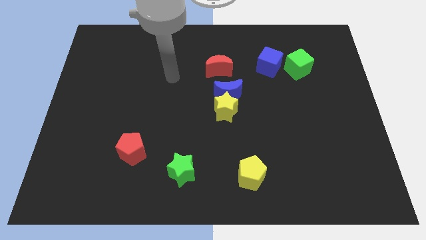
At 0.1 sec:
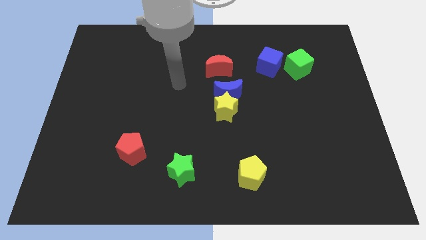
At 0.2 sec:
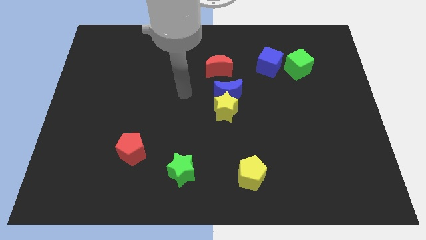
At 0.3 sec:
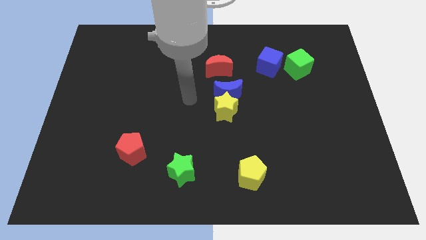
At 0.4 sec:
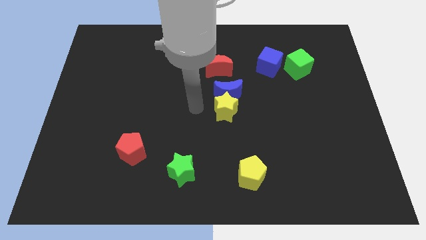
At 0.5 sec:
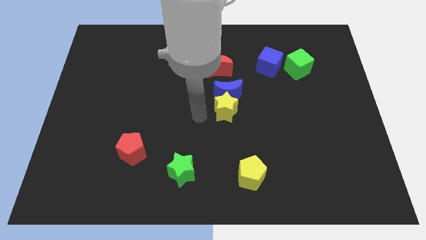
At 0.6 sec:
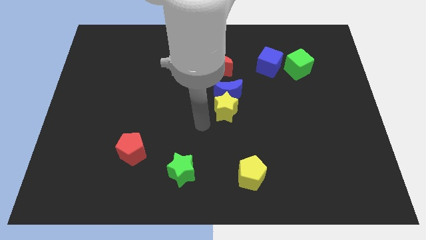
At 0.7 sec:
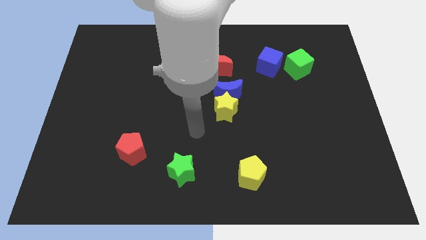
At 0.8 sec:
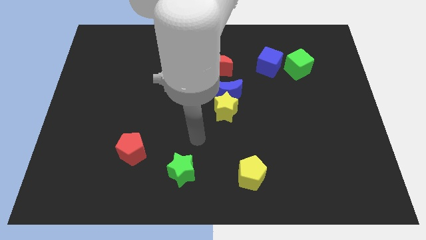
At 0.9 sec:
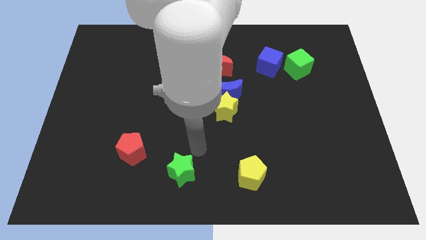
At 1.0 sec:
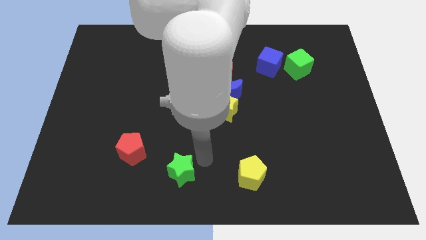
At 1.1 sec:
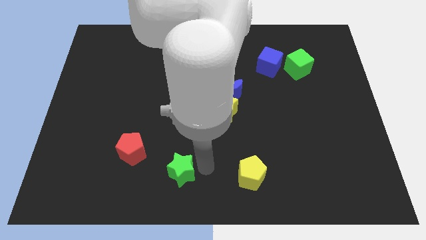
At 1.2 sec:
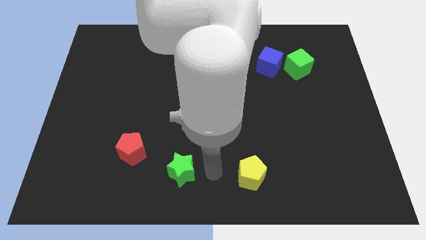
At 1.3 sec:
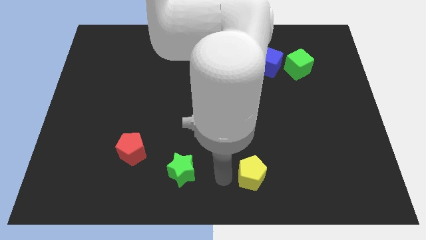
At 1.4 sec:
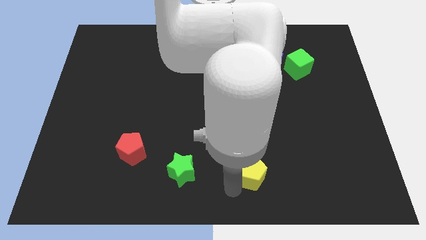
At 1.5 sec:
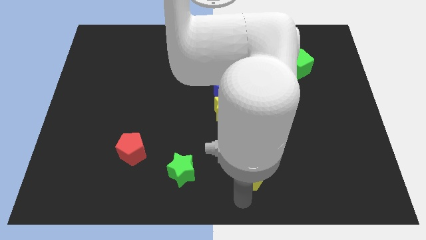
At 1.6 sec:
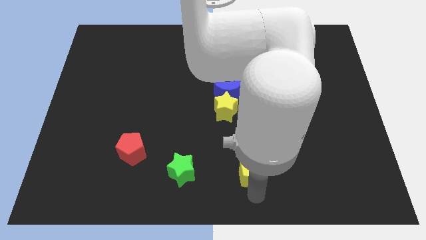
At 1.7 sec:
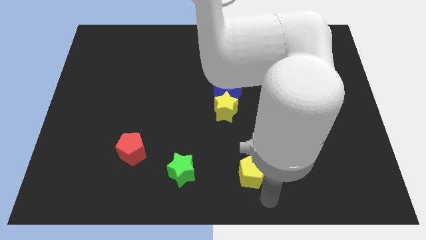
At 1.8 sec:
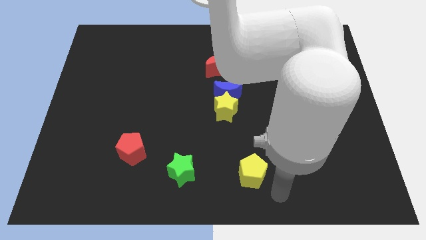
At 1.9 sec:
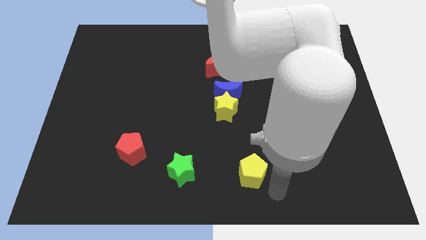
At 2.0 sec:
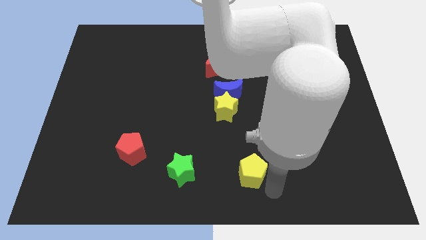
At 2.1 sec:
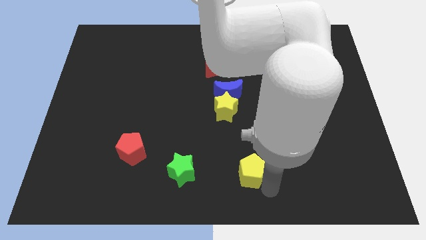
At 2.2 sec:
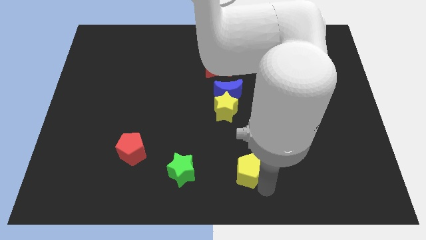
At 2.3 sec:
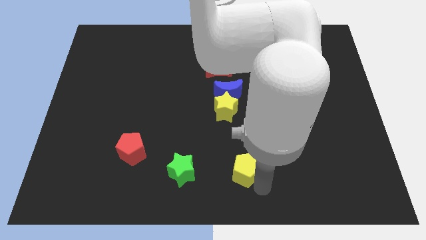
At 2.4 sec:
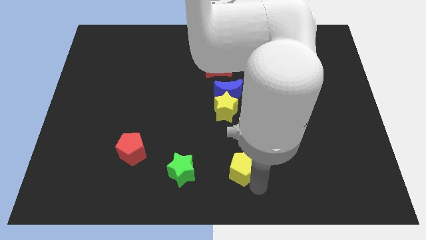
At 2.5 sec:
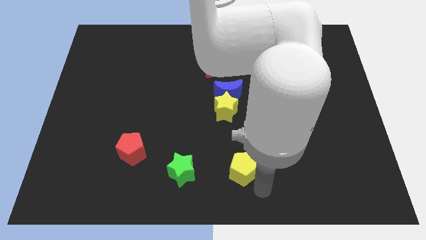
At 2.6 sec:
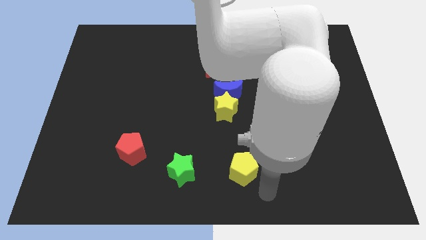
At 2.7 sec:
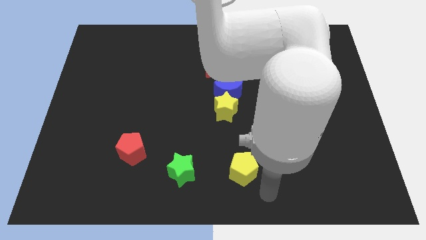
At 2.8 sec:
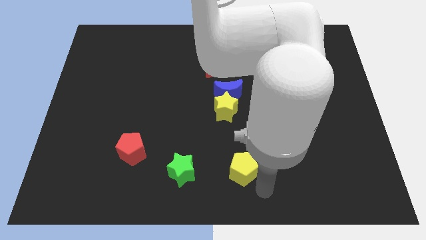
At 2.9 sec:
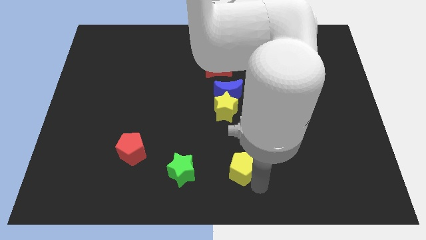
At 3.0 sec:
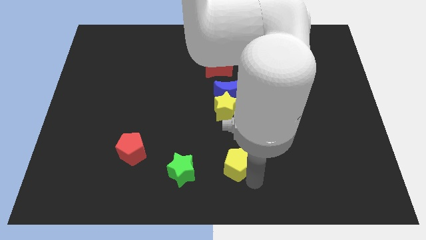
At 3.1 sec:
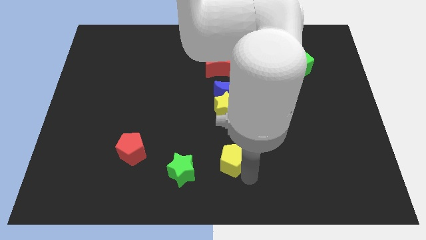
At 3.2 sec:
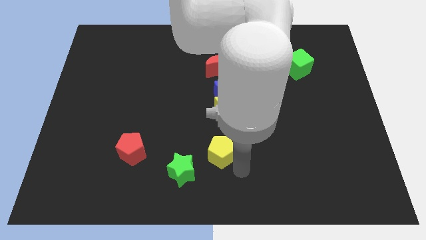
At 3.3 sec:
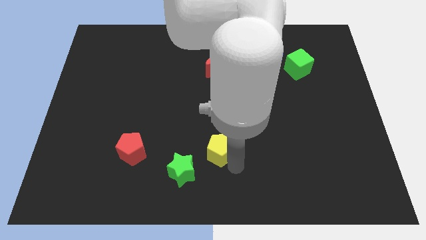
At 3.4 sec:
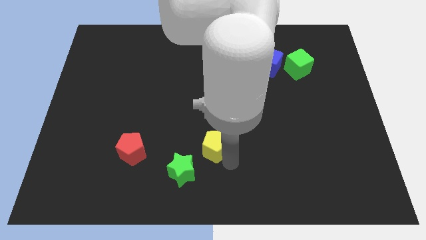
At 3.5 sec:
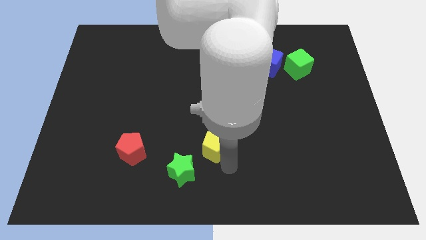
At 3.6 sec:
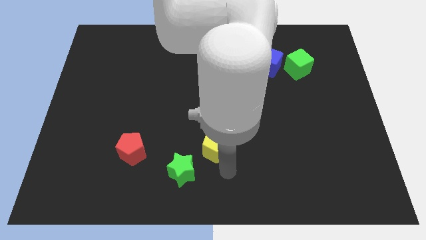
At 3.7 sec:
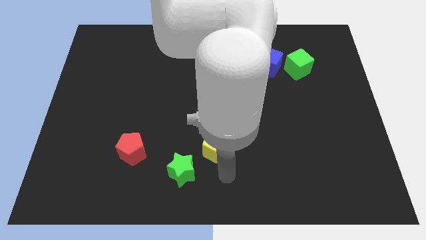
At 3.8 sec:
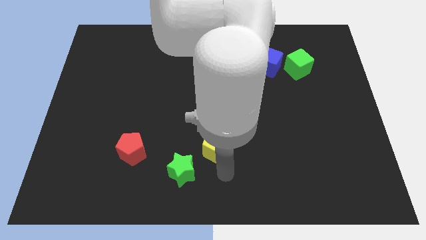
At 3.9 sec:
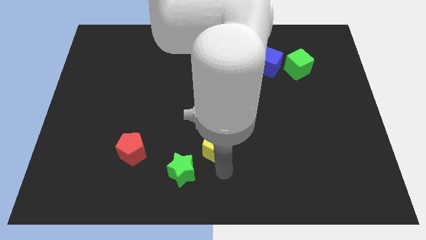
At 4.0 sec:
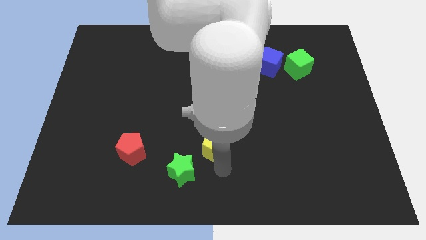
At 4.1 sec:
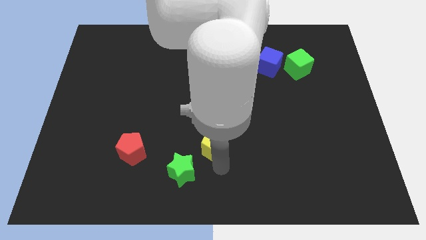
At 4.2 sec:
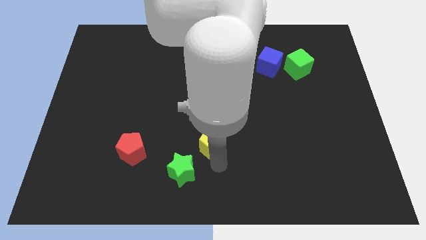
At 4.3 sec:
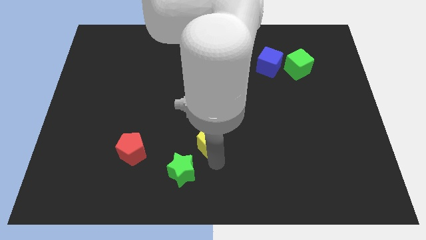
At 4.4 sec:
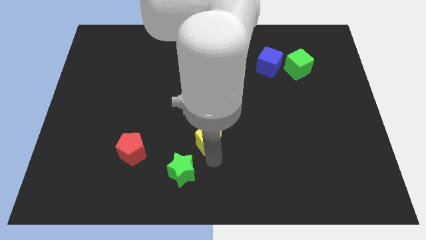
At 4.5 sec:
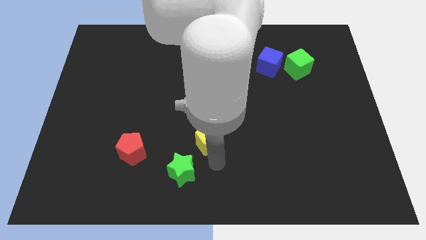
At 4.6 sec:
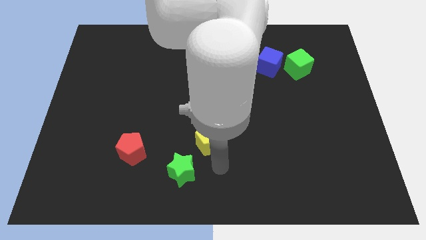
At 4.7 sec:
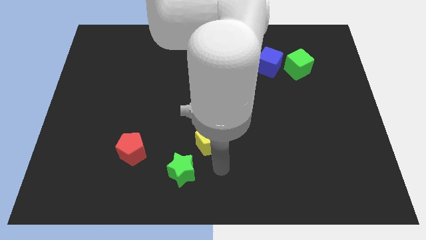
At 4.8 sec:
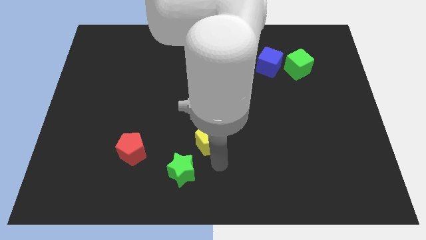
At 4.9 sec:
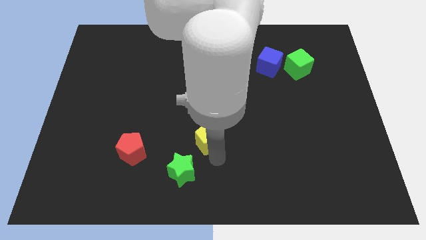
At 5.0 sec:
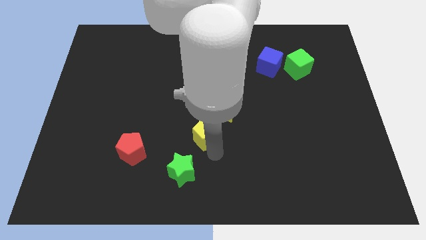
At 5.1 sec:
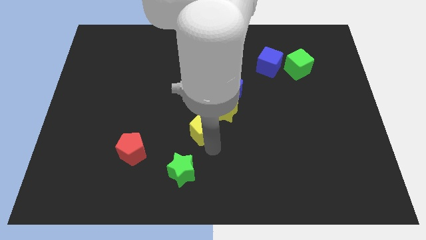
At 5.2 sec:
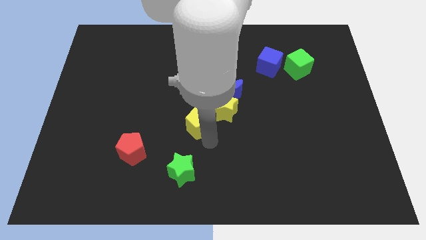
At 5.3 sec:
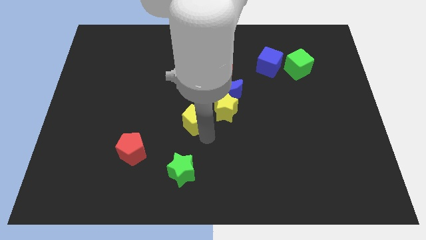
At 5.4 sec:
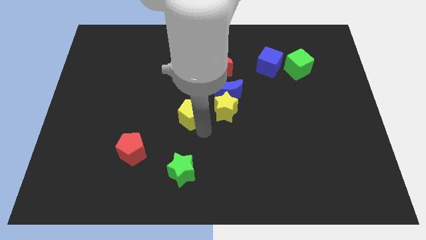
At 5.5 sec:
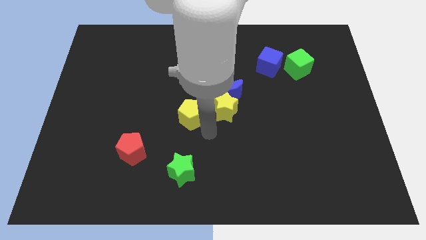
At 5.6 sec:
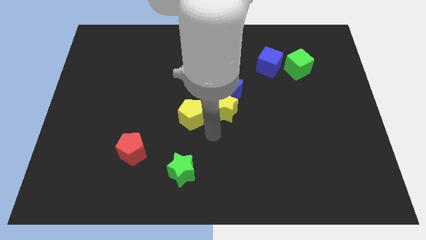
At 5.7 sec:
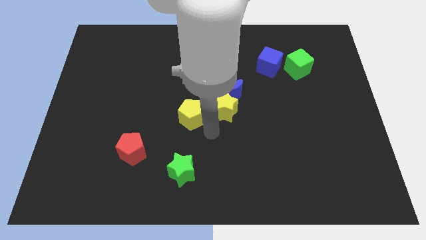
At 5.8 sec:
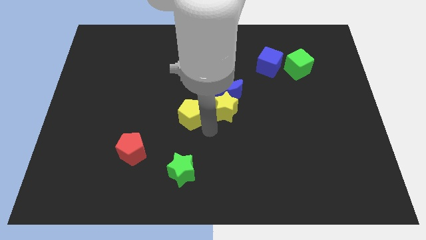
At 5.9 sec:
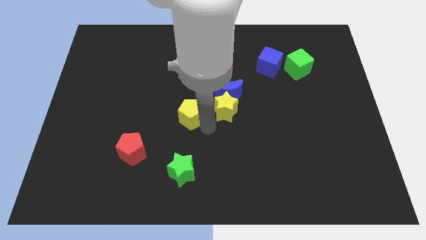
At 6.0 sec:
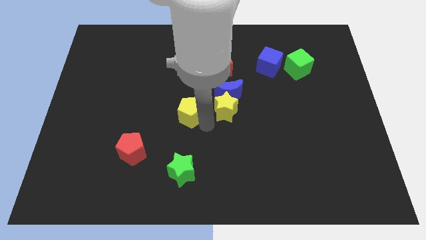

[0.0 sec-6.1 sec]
push the yellow pentagon upwards and then left

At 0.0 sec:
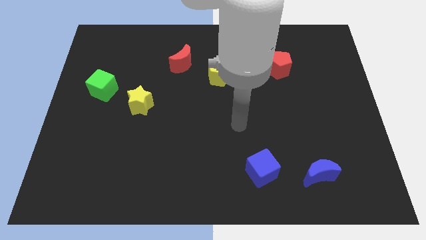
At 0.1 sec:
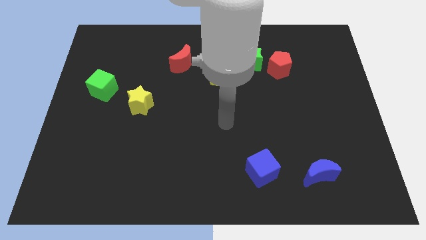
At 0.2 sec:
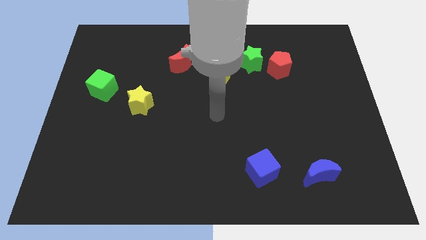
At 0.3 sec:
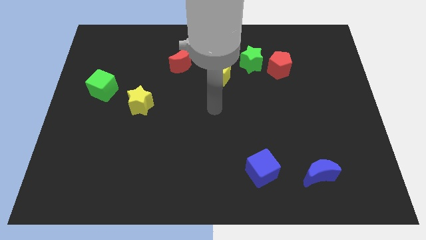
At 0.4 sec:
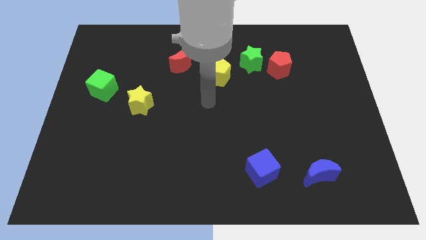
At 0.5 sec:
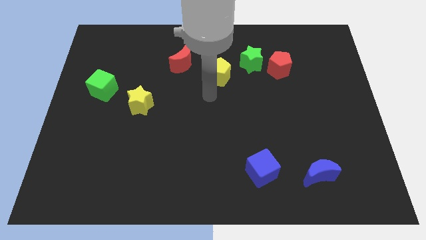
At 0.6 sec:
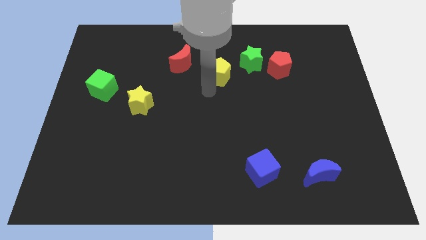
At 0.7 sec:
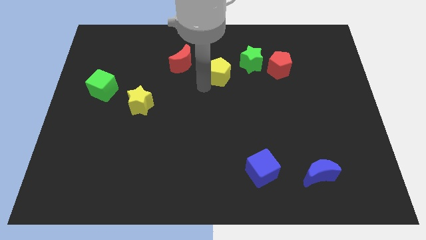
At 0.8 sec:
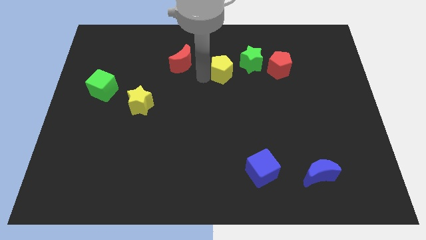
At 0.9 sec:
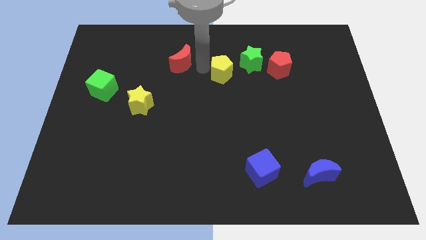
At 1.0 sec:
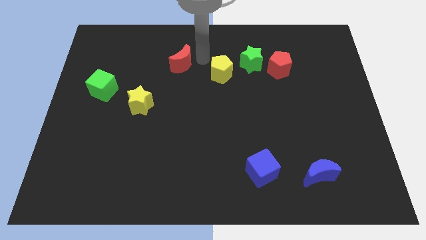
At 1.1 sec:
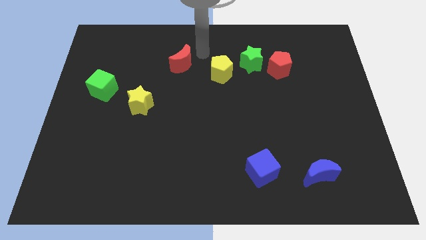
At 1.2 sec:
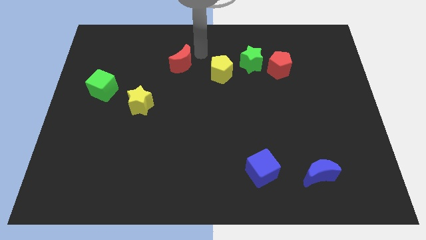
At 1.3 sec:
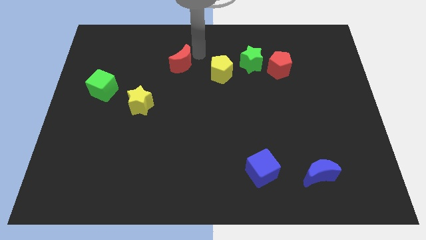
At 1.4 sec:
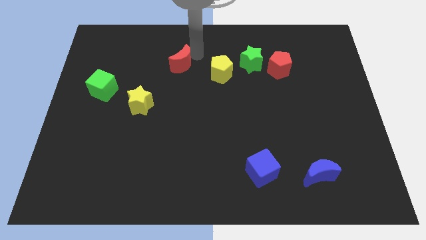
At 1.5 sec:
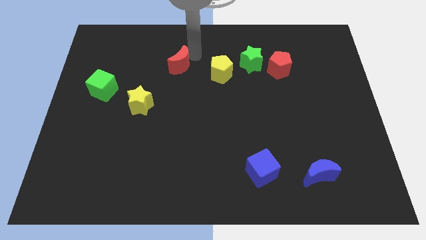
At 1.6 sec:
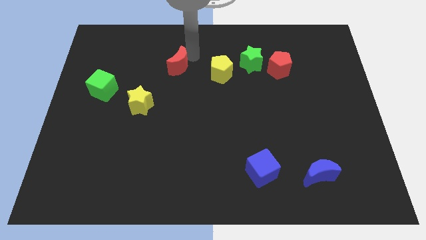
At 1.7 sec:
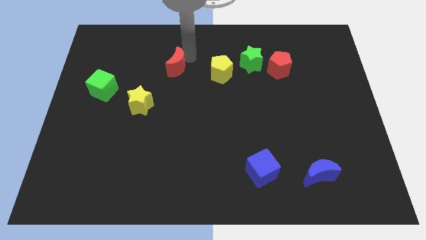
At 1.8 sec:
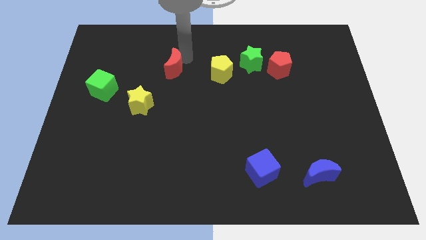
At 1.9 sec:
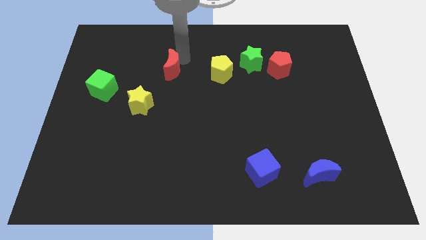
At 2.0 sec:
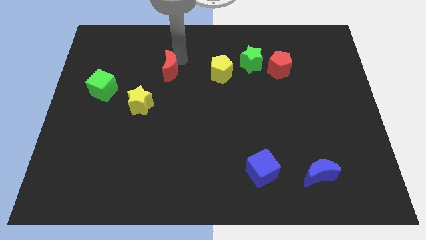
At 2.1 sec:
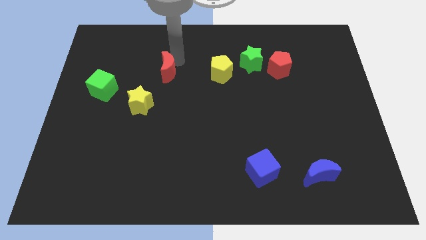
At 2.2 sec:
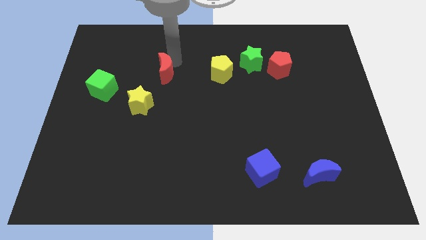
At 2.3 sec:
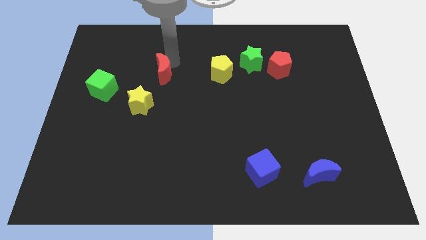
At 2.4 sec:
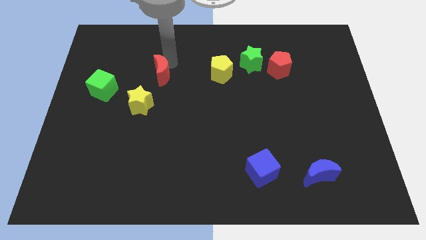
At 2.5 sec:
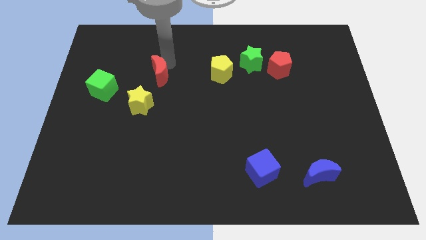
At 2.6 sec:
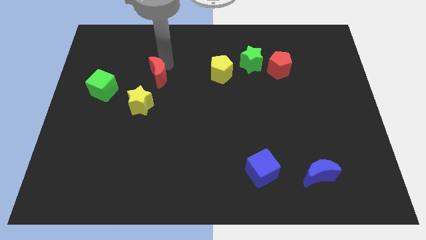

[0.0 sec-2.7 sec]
slide the red moon down and left slightly
